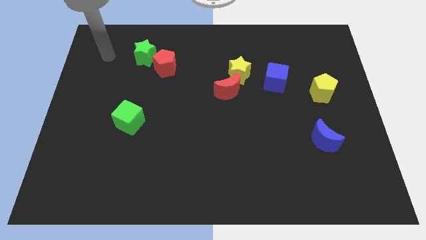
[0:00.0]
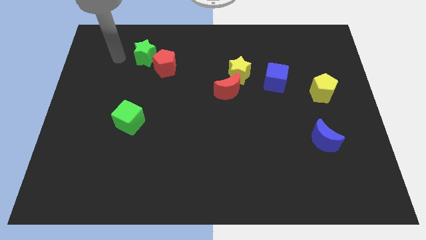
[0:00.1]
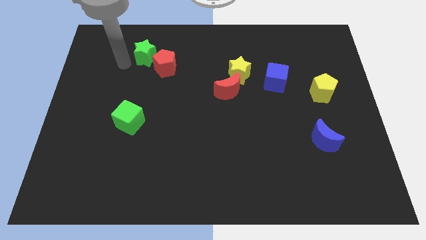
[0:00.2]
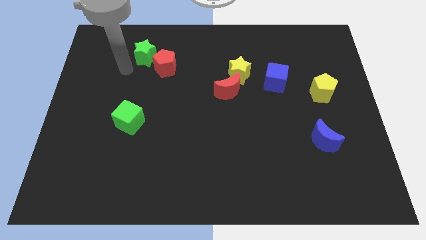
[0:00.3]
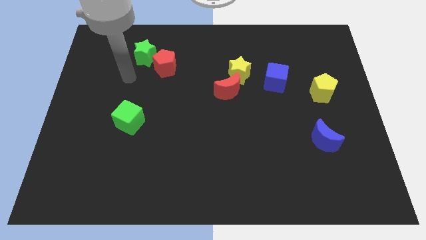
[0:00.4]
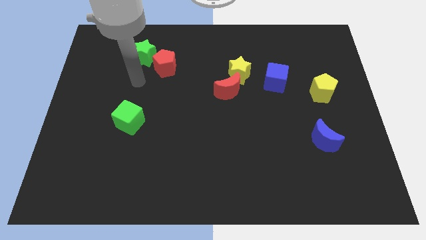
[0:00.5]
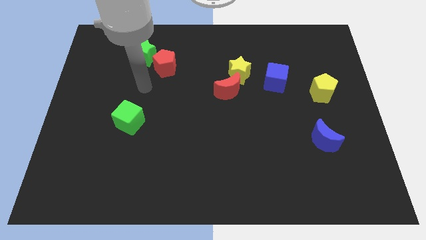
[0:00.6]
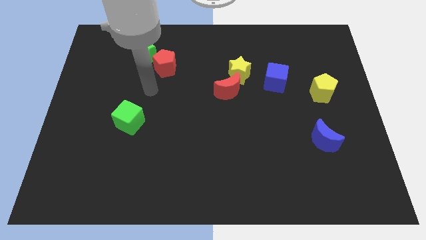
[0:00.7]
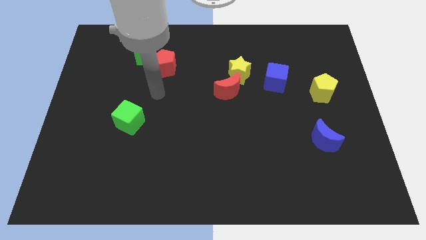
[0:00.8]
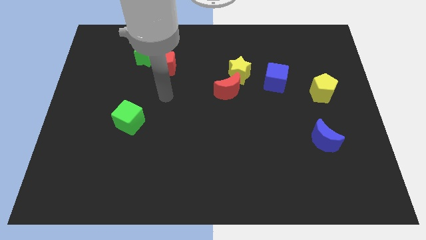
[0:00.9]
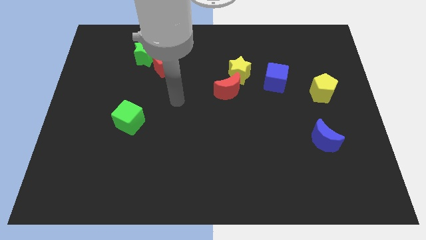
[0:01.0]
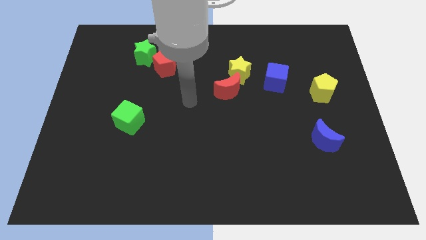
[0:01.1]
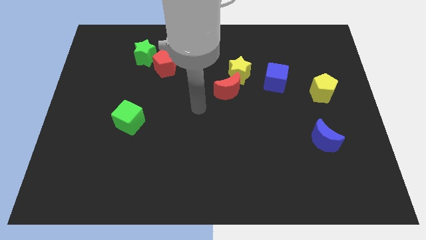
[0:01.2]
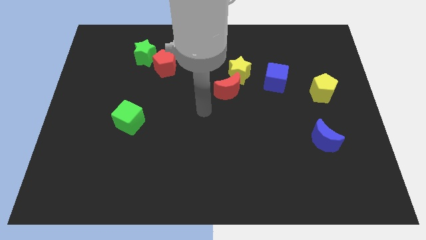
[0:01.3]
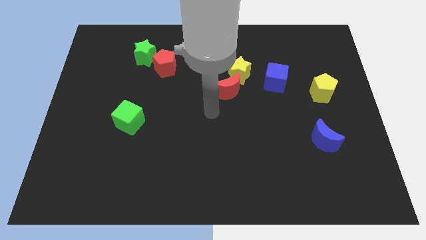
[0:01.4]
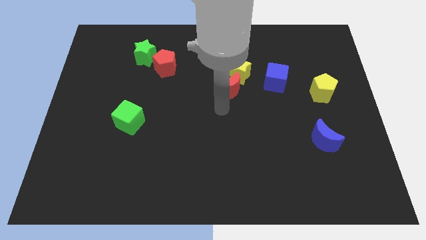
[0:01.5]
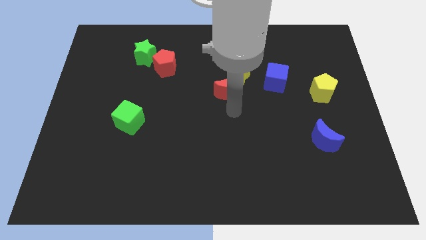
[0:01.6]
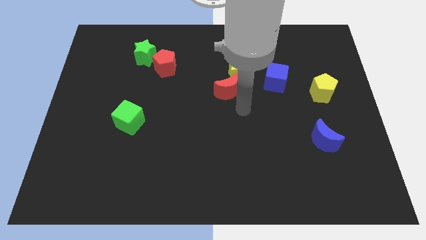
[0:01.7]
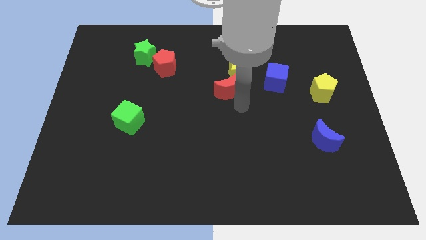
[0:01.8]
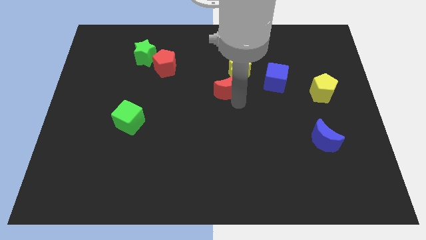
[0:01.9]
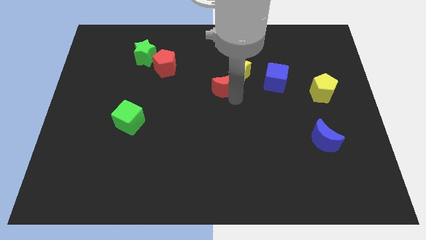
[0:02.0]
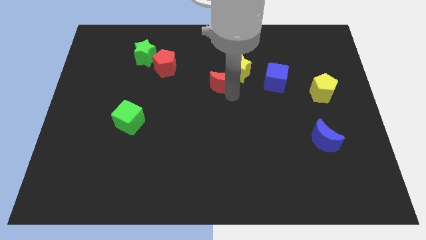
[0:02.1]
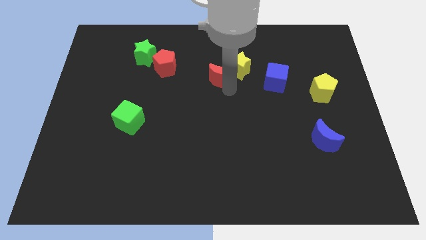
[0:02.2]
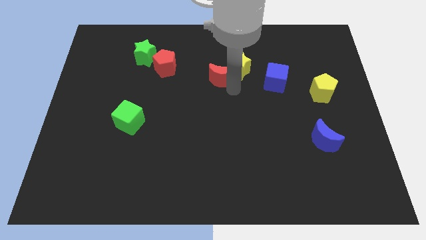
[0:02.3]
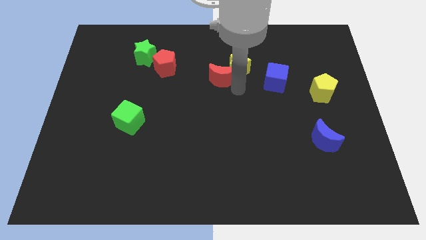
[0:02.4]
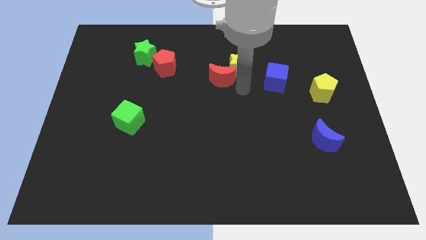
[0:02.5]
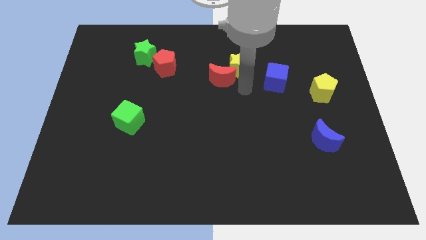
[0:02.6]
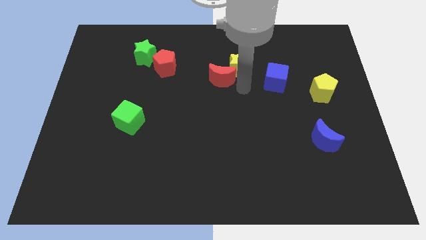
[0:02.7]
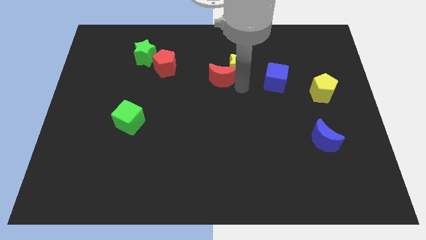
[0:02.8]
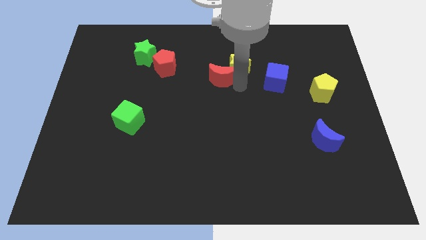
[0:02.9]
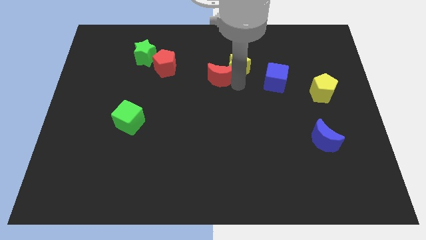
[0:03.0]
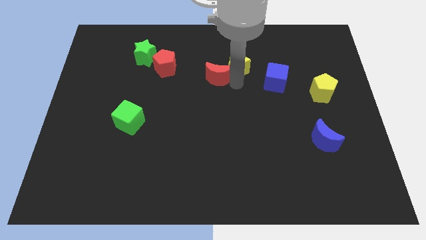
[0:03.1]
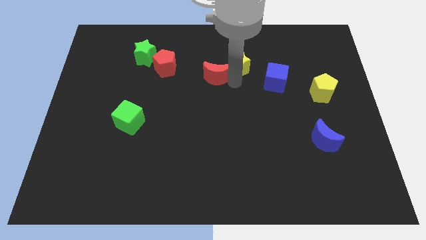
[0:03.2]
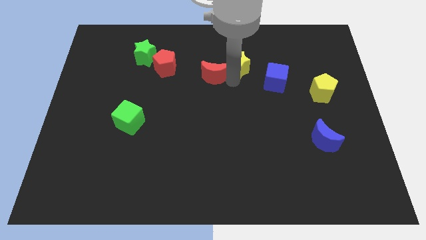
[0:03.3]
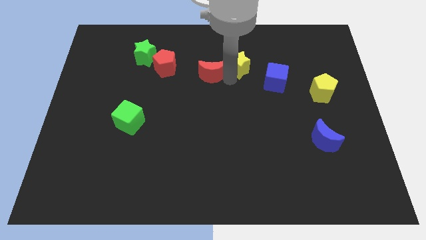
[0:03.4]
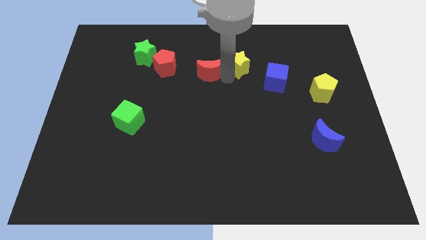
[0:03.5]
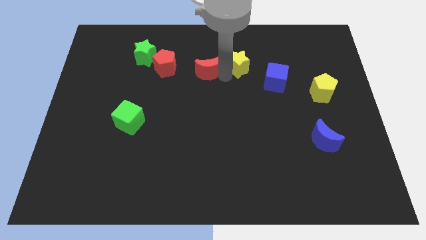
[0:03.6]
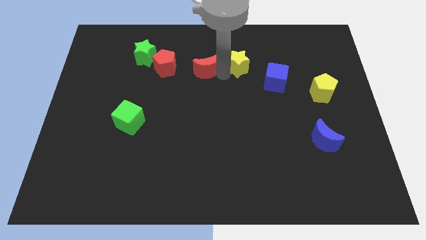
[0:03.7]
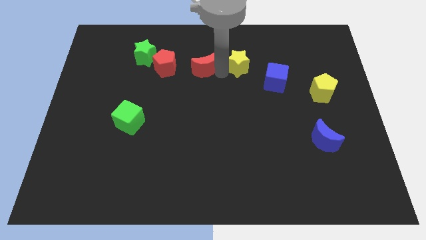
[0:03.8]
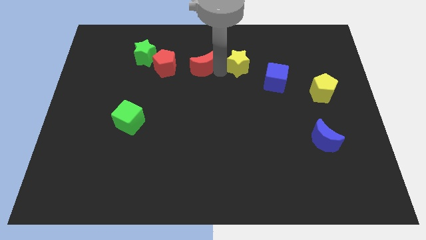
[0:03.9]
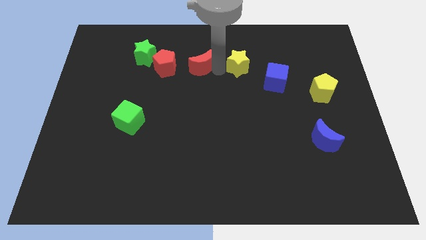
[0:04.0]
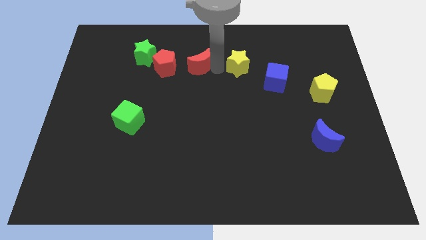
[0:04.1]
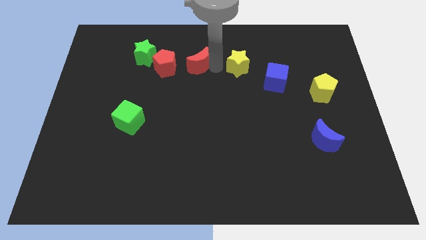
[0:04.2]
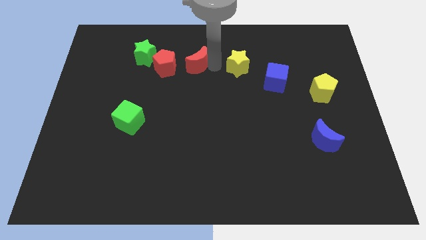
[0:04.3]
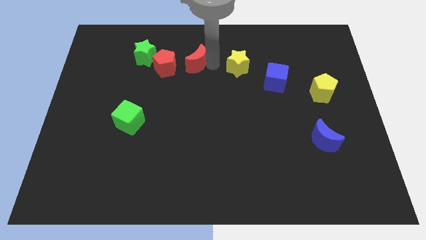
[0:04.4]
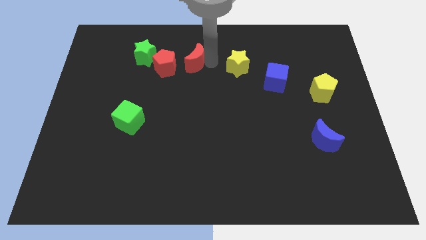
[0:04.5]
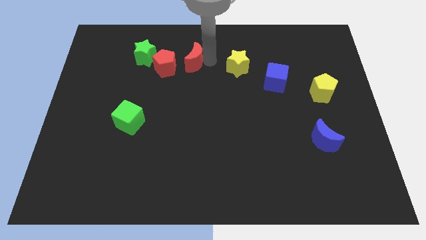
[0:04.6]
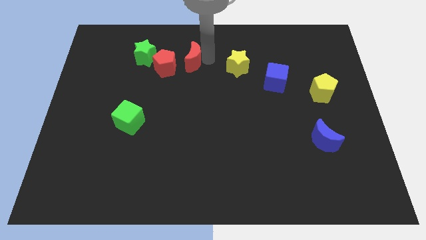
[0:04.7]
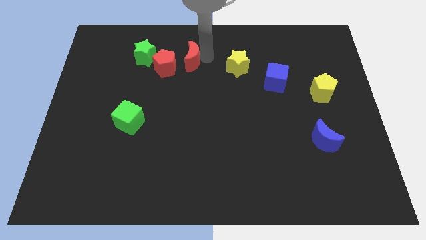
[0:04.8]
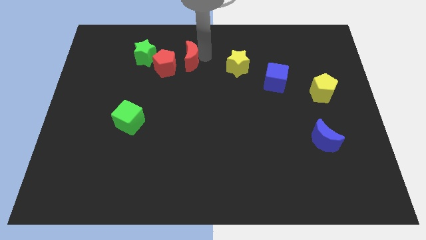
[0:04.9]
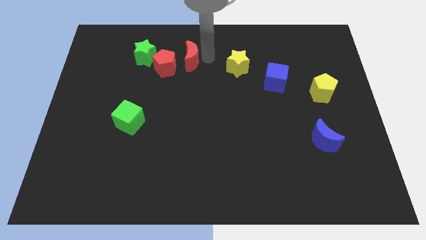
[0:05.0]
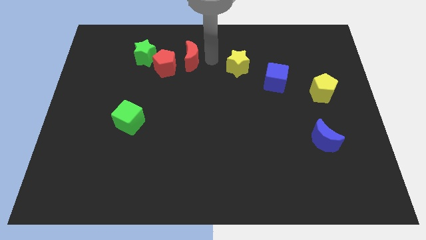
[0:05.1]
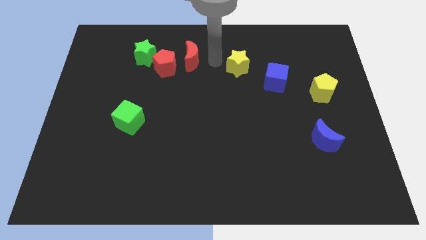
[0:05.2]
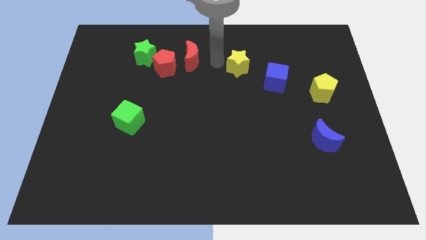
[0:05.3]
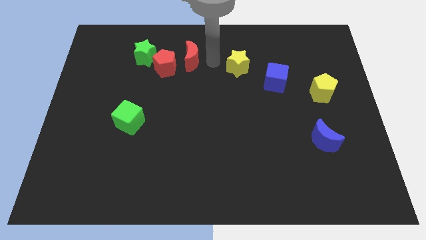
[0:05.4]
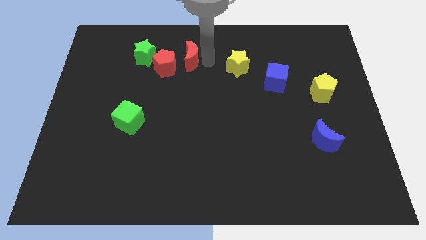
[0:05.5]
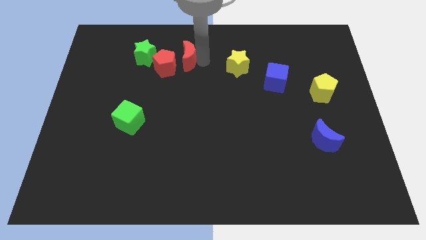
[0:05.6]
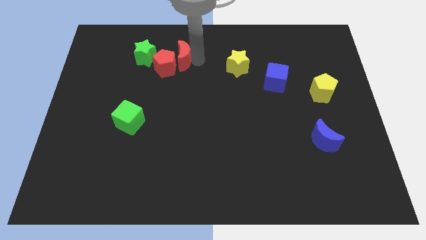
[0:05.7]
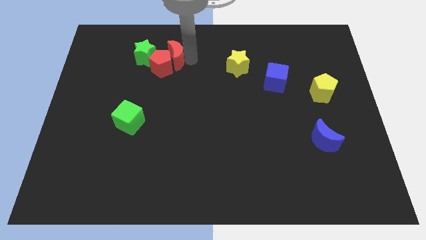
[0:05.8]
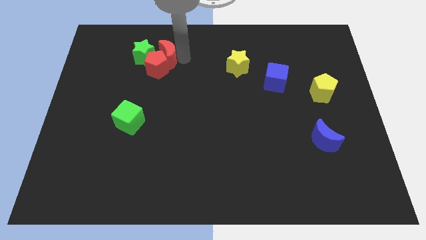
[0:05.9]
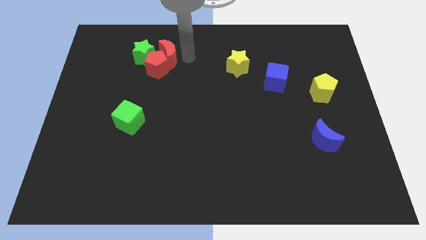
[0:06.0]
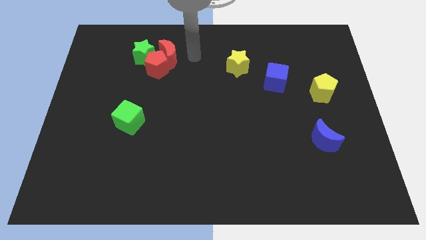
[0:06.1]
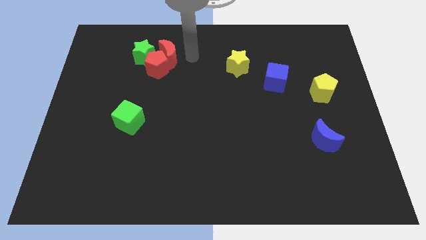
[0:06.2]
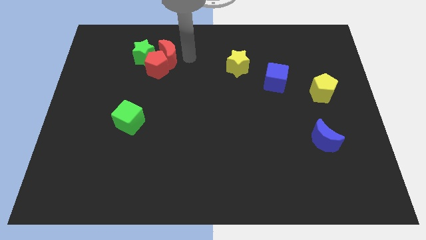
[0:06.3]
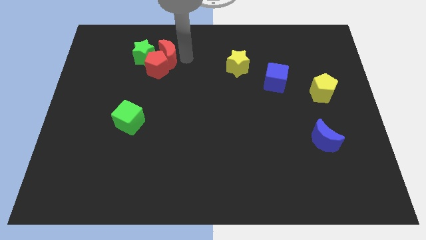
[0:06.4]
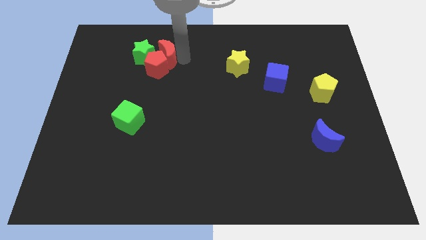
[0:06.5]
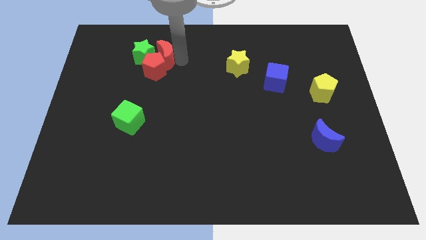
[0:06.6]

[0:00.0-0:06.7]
move the red moon to the green star
